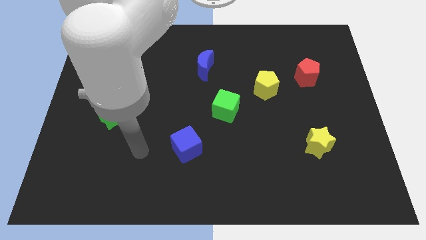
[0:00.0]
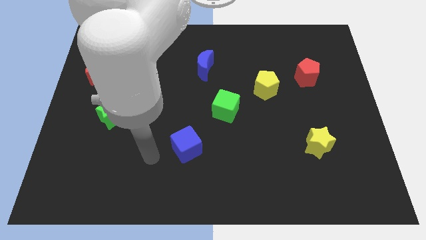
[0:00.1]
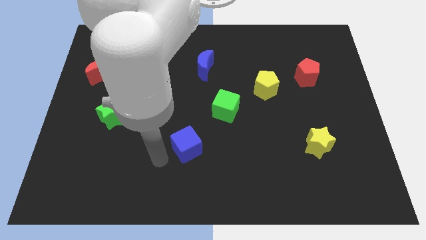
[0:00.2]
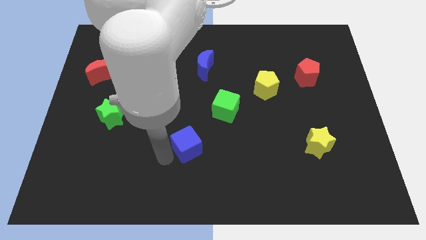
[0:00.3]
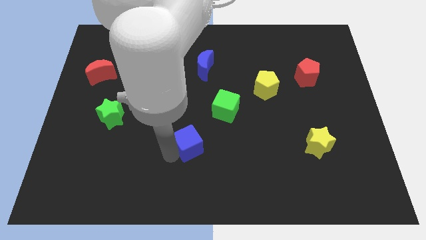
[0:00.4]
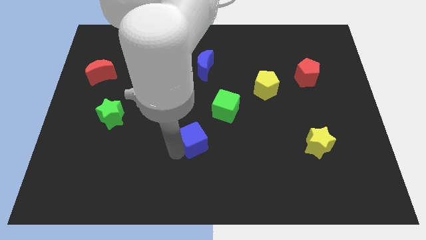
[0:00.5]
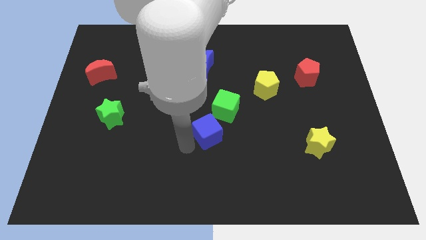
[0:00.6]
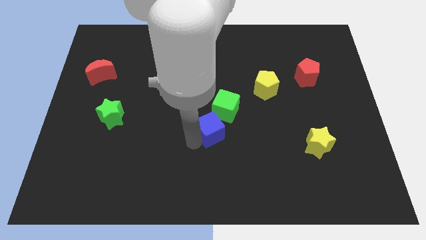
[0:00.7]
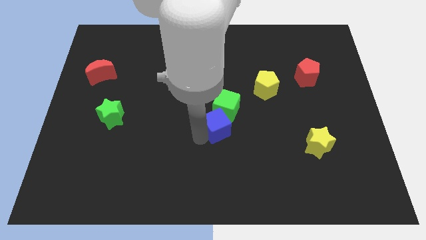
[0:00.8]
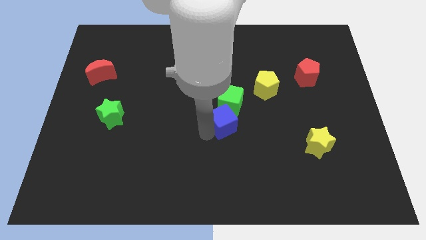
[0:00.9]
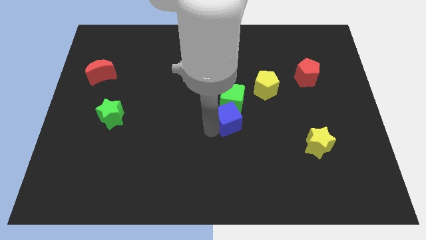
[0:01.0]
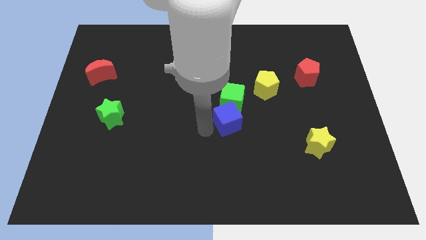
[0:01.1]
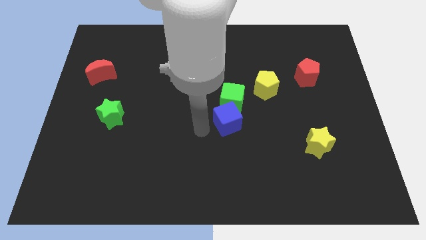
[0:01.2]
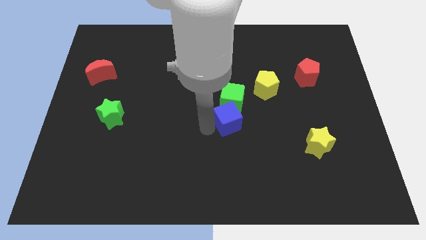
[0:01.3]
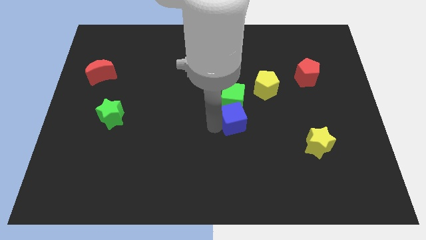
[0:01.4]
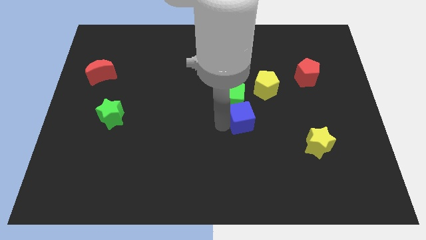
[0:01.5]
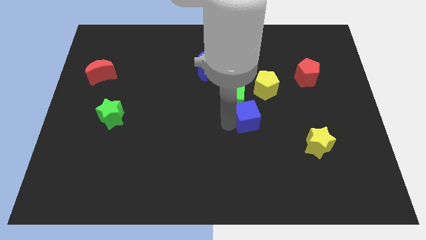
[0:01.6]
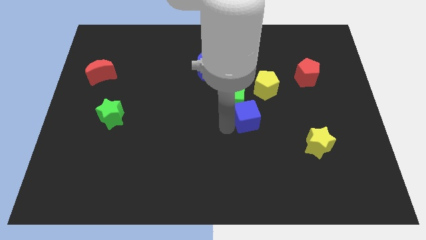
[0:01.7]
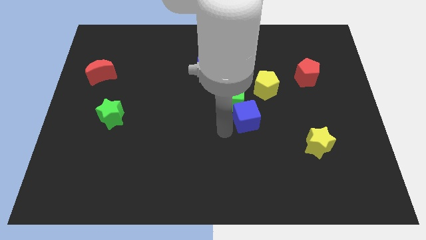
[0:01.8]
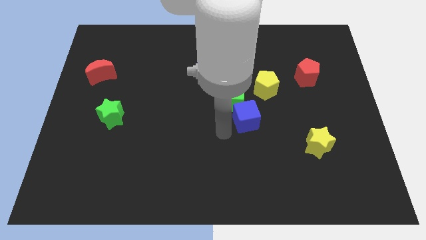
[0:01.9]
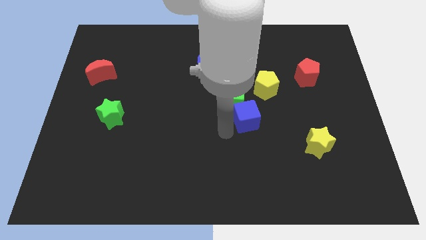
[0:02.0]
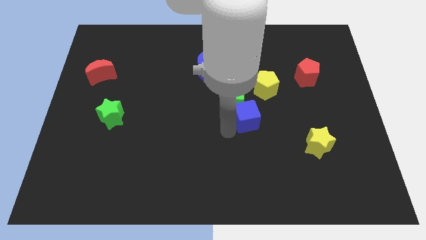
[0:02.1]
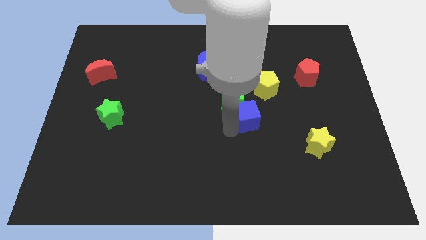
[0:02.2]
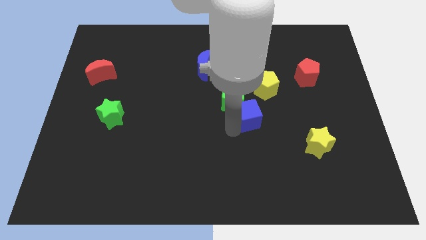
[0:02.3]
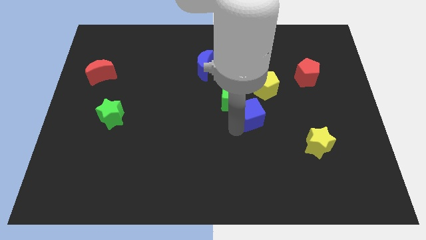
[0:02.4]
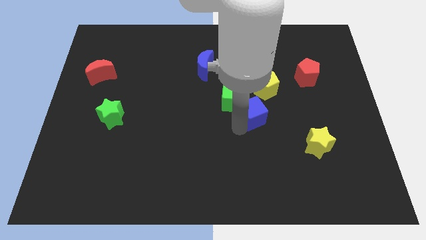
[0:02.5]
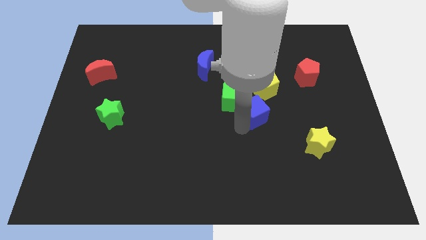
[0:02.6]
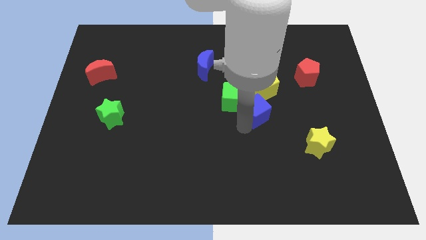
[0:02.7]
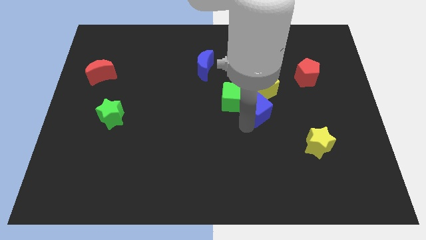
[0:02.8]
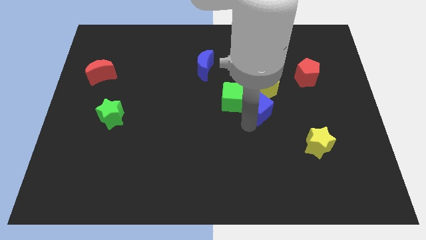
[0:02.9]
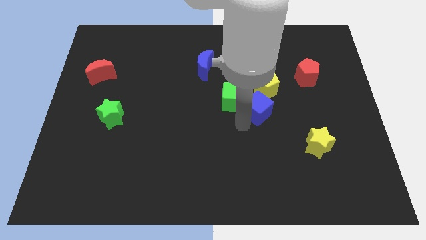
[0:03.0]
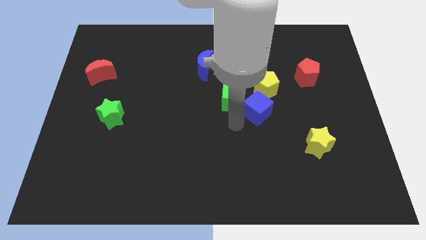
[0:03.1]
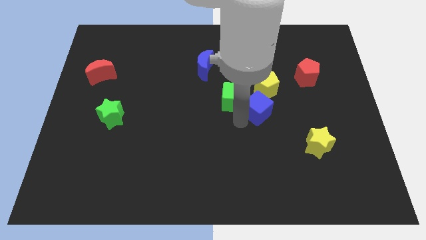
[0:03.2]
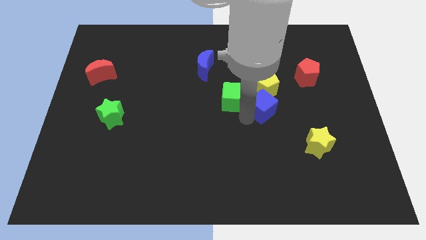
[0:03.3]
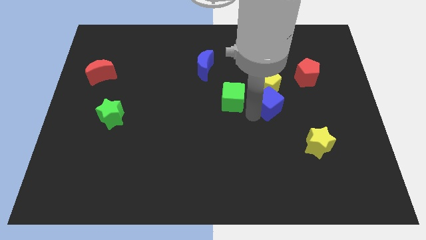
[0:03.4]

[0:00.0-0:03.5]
slide the blue cube up and then right

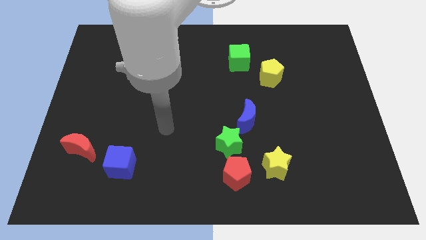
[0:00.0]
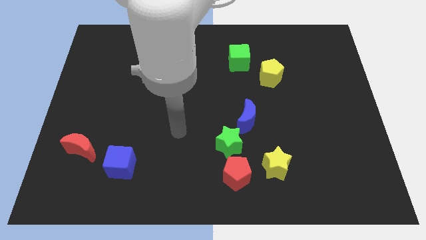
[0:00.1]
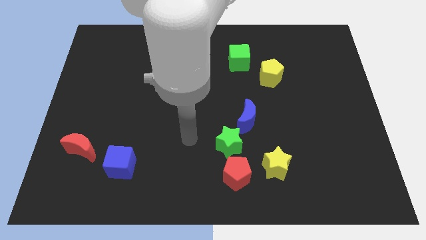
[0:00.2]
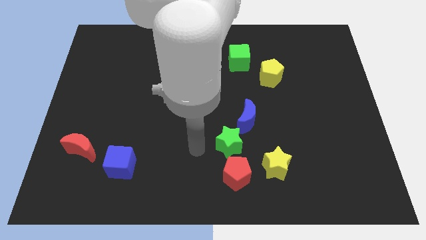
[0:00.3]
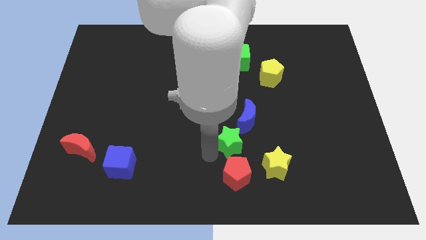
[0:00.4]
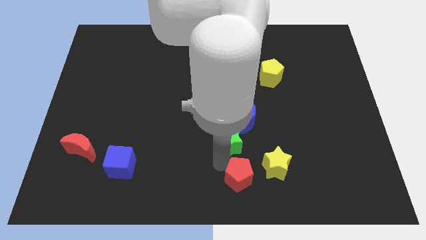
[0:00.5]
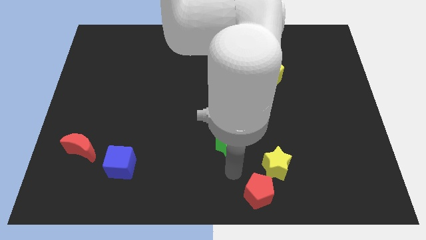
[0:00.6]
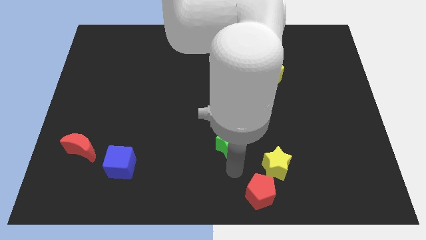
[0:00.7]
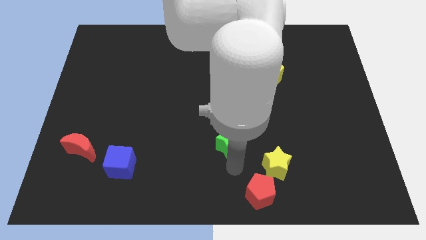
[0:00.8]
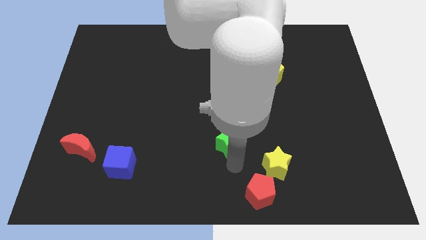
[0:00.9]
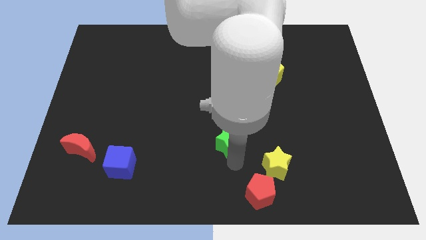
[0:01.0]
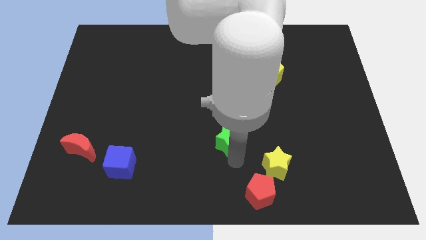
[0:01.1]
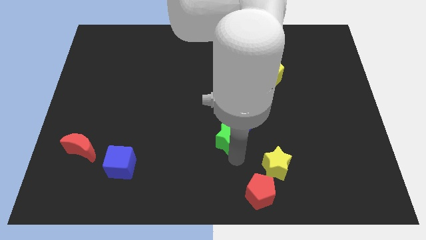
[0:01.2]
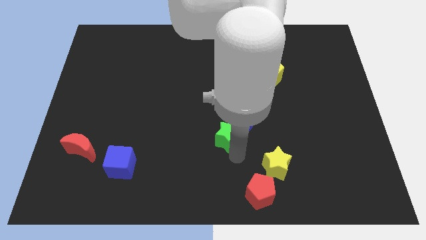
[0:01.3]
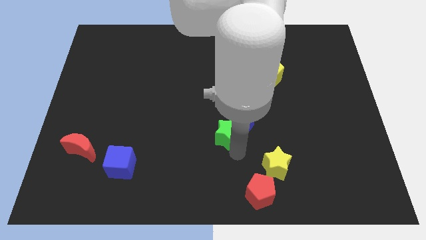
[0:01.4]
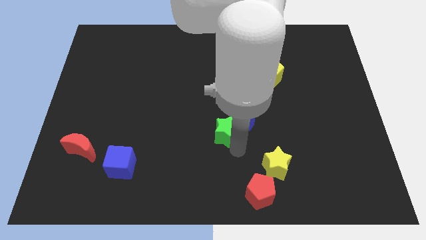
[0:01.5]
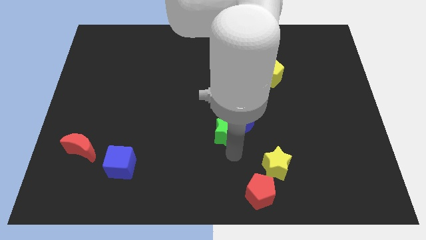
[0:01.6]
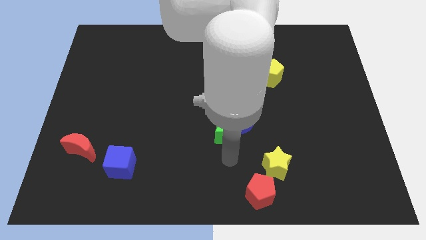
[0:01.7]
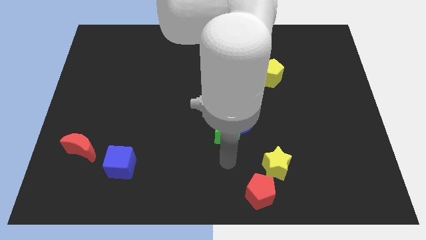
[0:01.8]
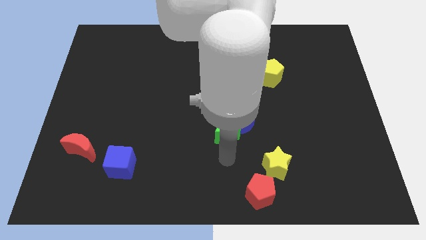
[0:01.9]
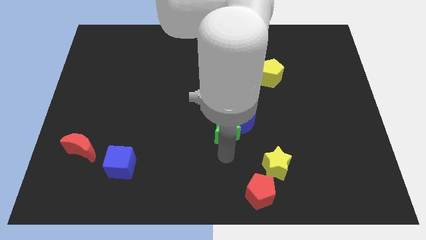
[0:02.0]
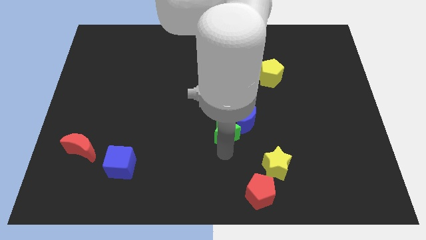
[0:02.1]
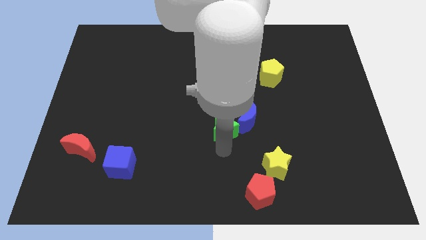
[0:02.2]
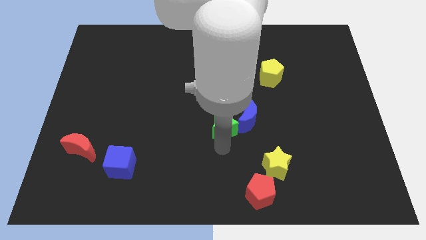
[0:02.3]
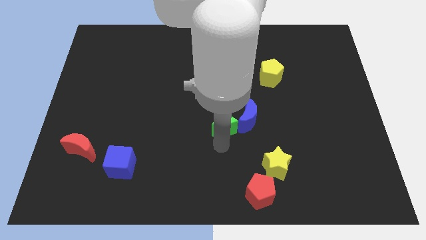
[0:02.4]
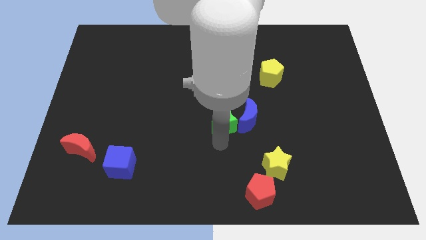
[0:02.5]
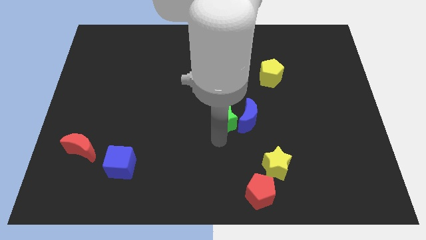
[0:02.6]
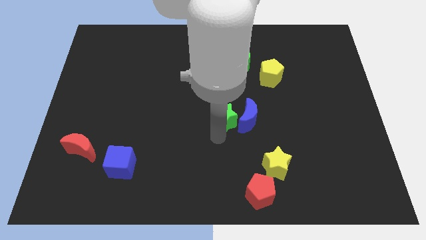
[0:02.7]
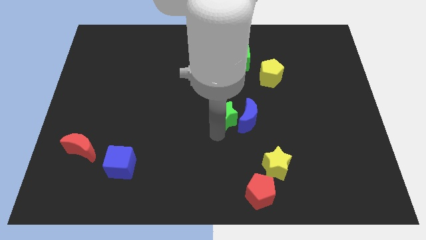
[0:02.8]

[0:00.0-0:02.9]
push the green star a bit upwards

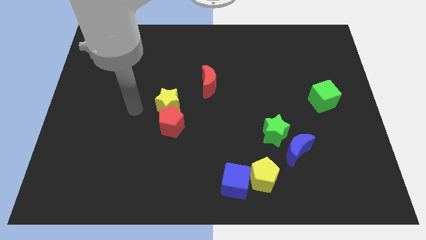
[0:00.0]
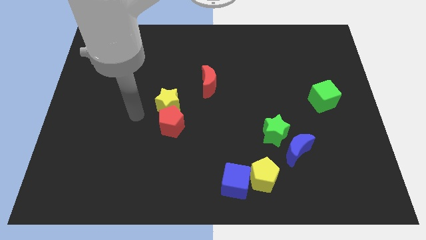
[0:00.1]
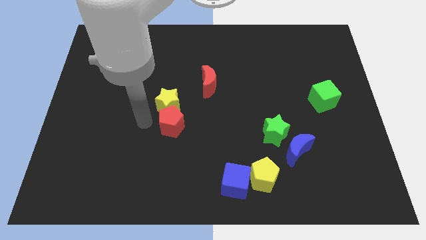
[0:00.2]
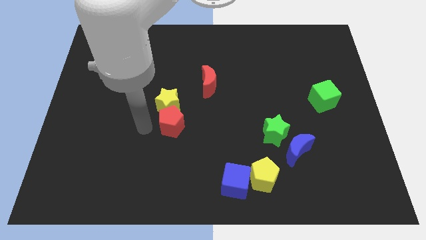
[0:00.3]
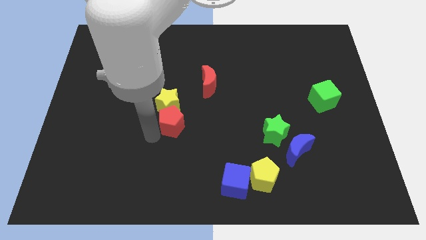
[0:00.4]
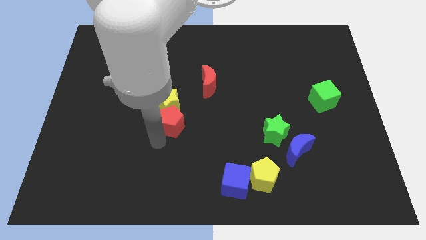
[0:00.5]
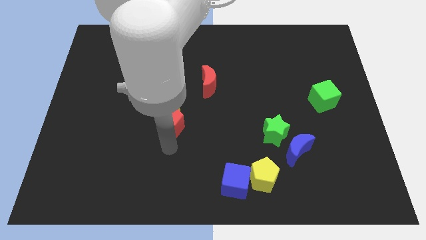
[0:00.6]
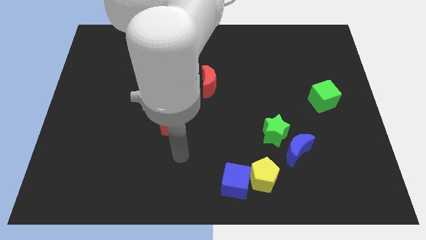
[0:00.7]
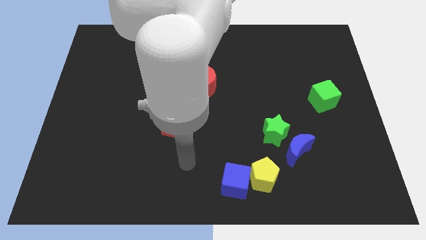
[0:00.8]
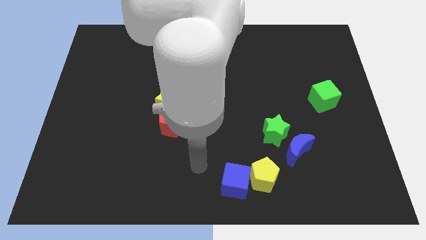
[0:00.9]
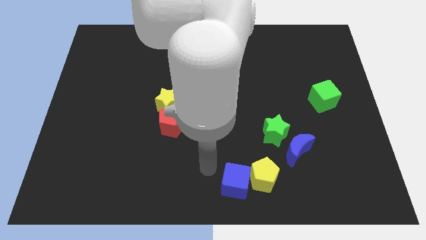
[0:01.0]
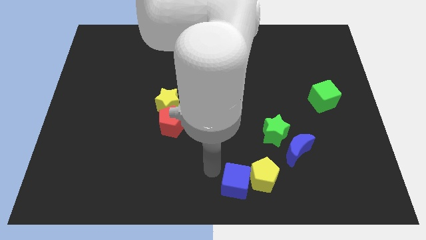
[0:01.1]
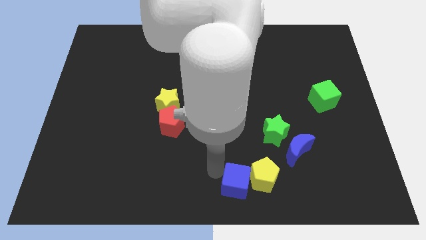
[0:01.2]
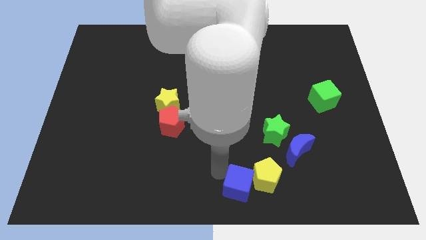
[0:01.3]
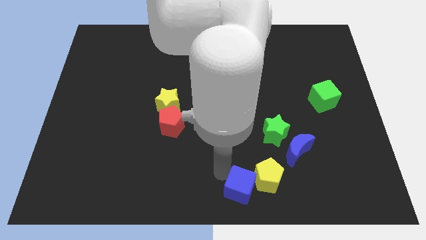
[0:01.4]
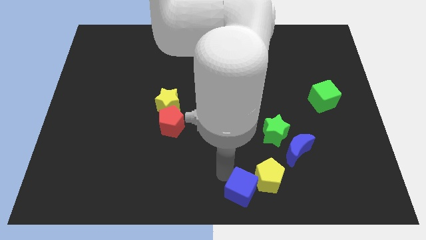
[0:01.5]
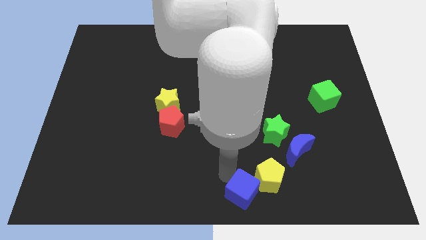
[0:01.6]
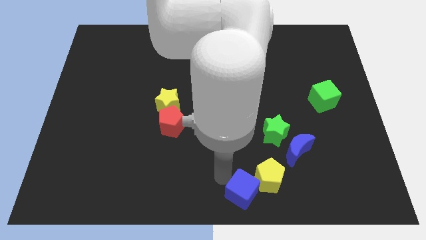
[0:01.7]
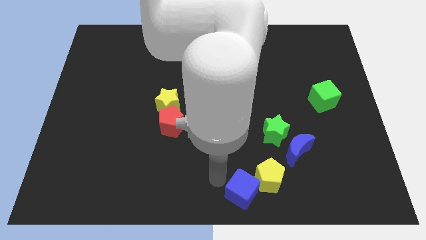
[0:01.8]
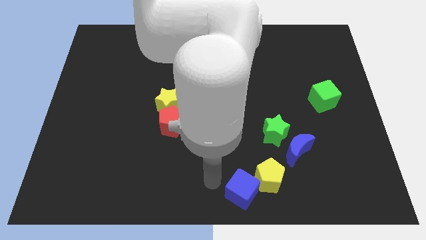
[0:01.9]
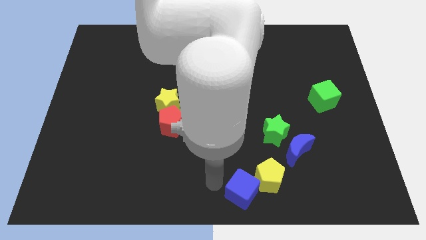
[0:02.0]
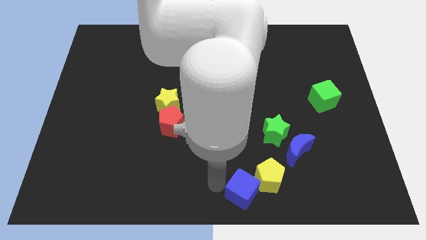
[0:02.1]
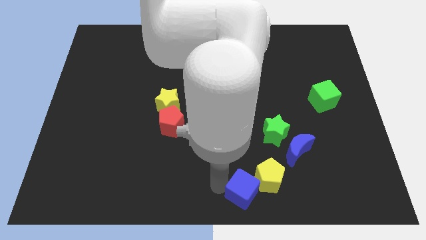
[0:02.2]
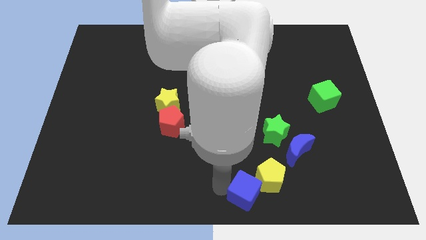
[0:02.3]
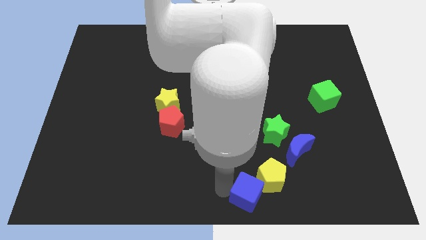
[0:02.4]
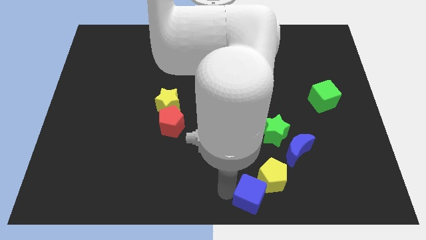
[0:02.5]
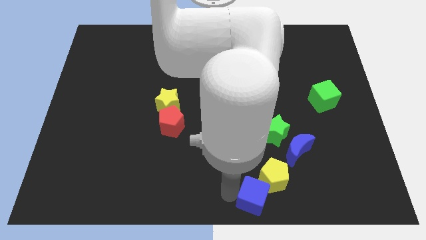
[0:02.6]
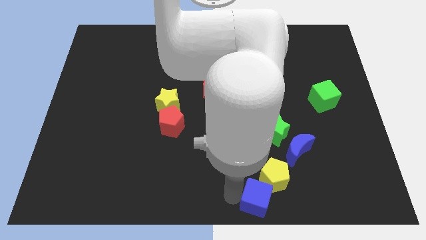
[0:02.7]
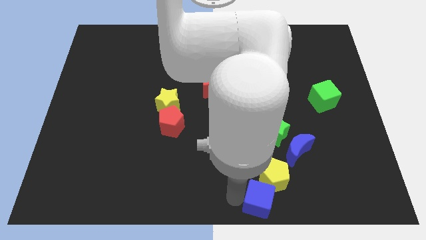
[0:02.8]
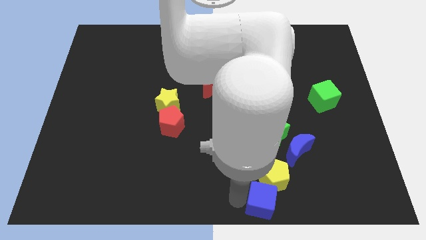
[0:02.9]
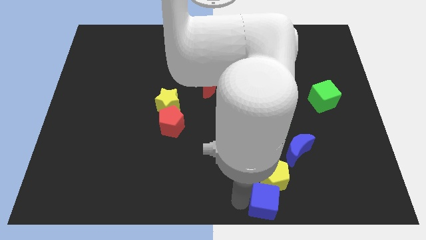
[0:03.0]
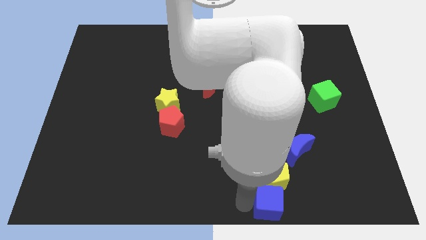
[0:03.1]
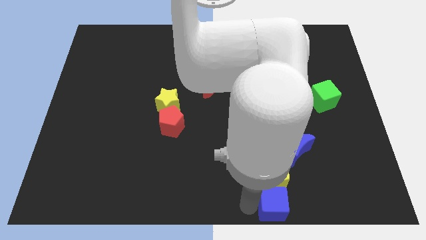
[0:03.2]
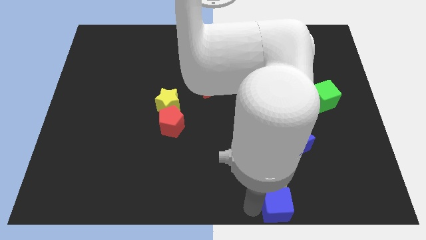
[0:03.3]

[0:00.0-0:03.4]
slide the blue cube a bit right
